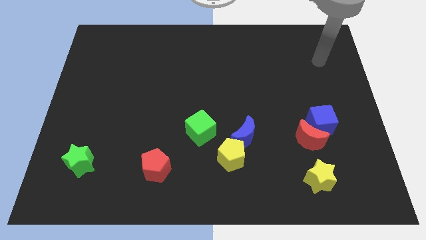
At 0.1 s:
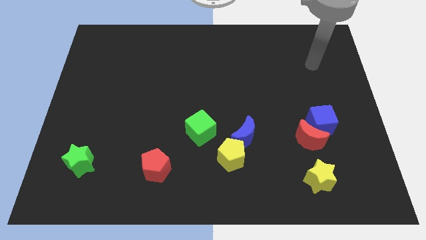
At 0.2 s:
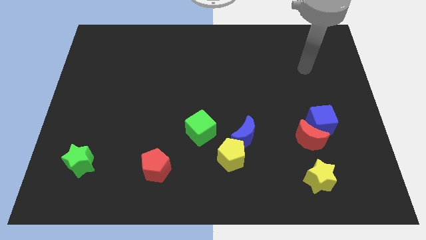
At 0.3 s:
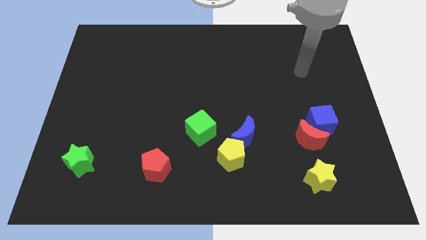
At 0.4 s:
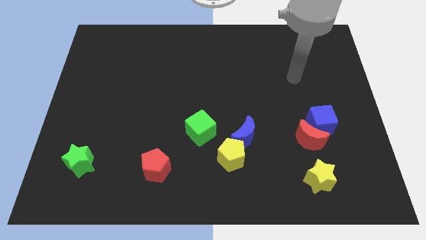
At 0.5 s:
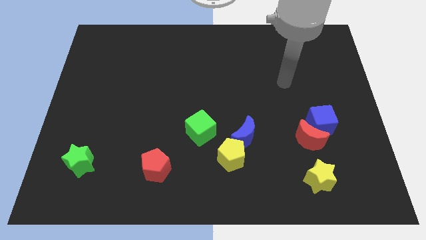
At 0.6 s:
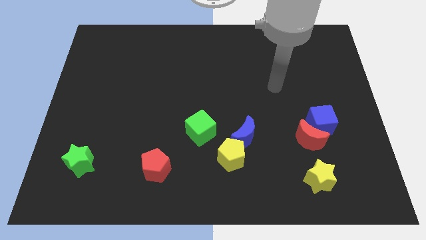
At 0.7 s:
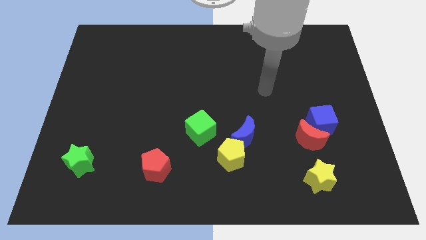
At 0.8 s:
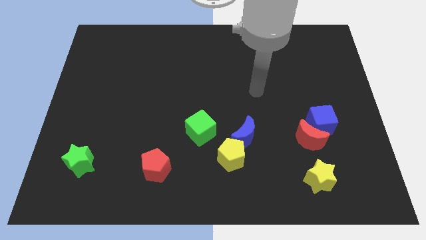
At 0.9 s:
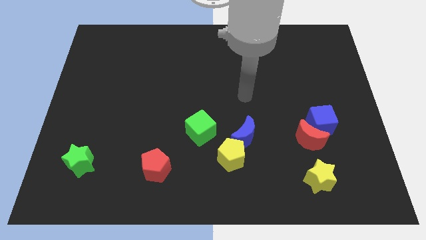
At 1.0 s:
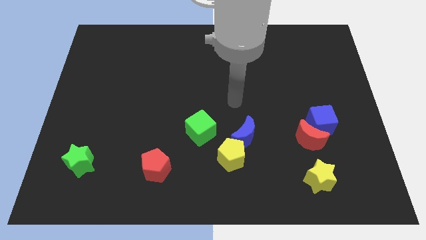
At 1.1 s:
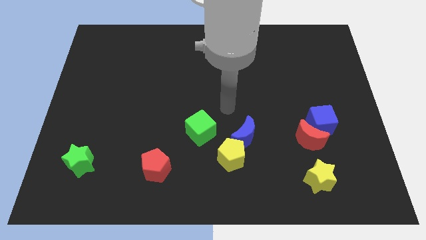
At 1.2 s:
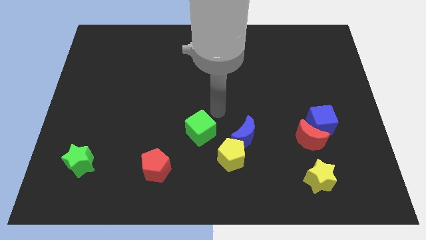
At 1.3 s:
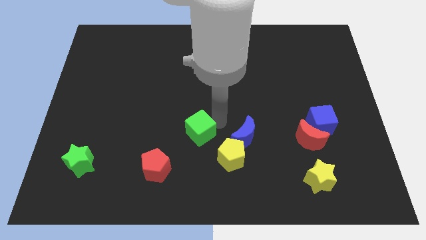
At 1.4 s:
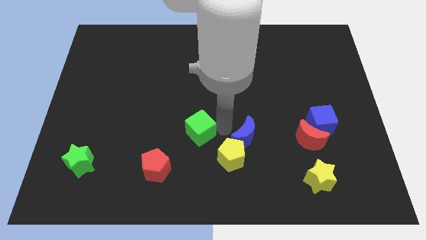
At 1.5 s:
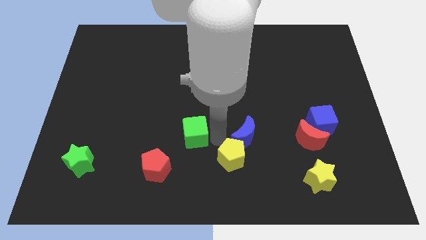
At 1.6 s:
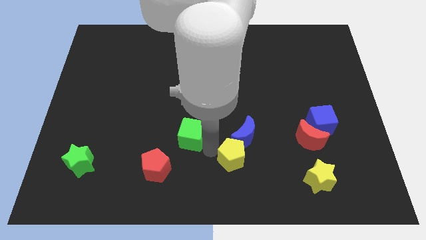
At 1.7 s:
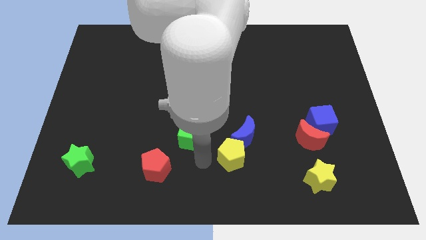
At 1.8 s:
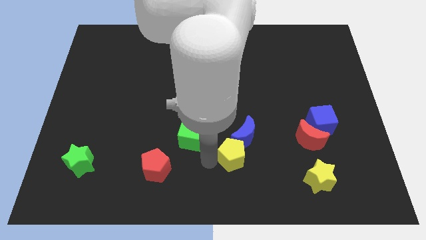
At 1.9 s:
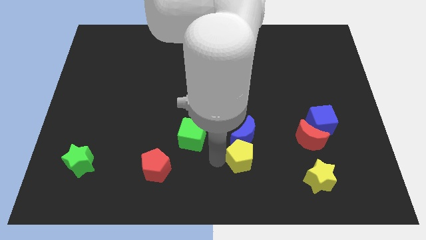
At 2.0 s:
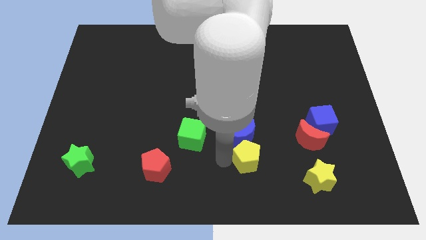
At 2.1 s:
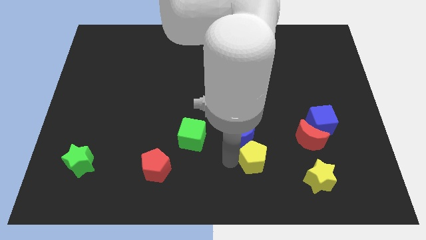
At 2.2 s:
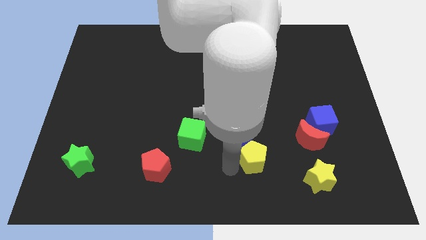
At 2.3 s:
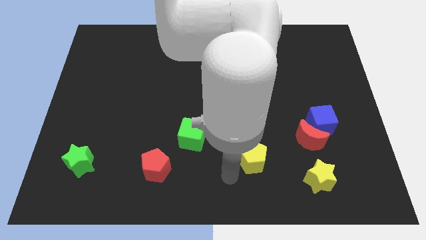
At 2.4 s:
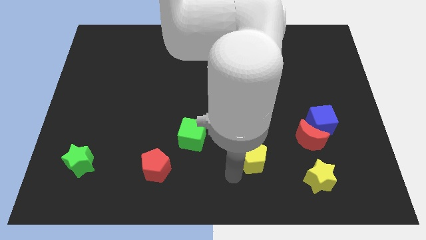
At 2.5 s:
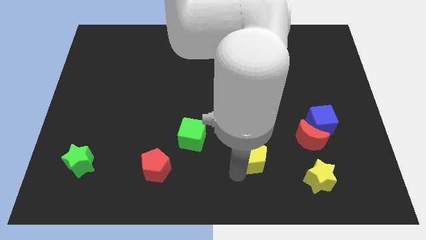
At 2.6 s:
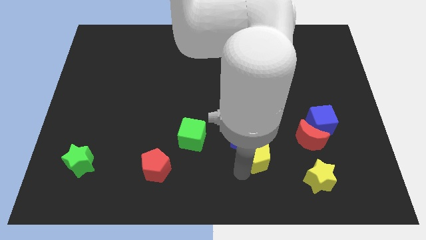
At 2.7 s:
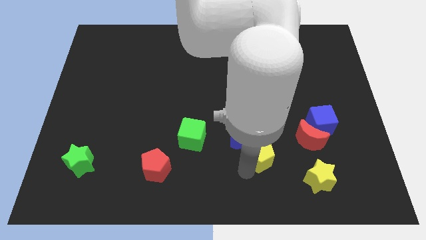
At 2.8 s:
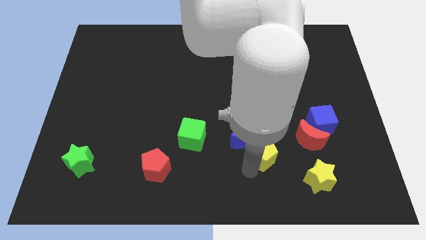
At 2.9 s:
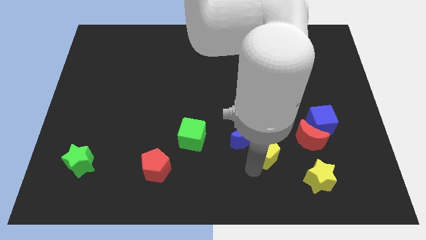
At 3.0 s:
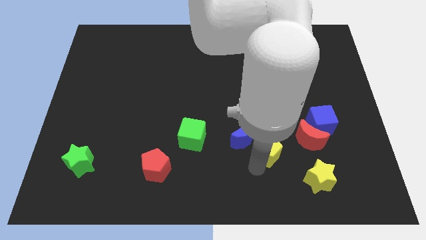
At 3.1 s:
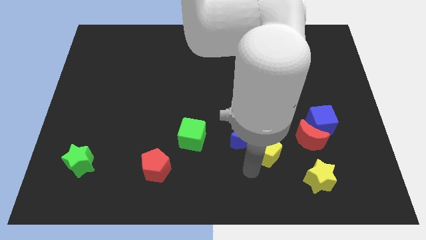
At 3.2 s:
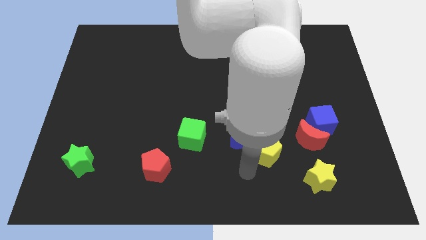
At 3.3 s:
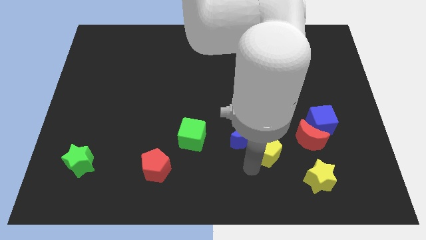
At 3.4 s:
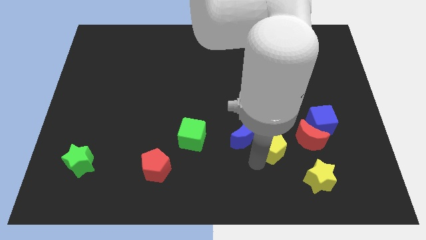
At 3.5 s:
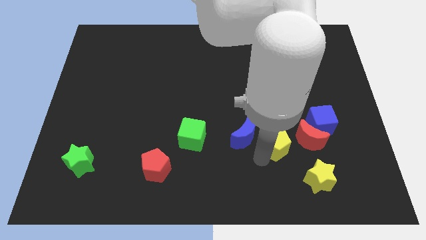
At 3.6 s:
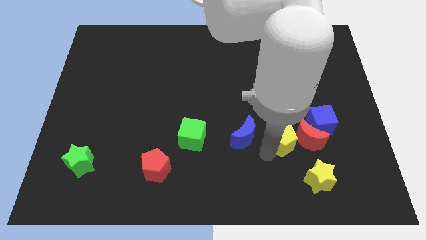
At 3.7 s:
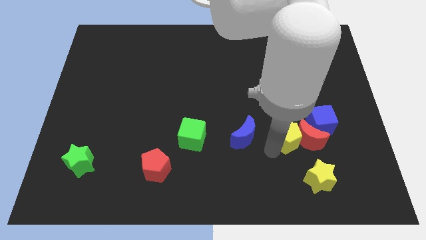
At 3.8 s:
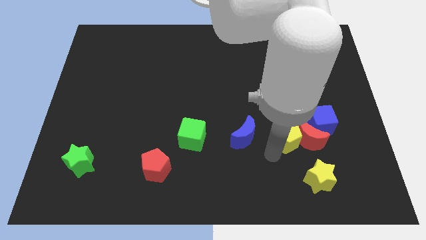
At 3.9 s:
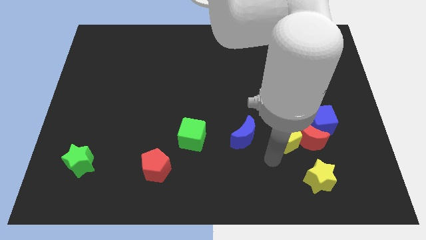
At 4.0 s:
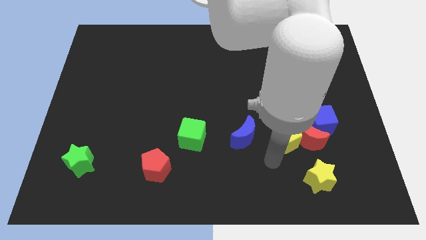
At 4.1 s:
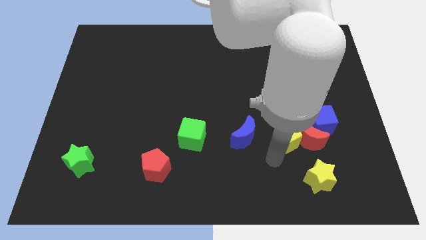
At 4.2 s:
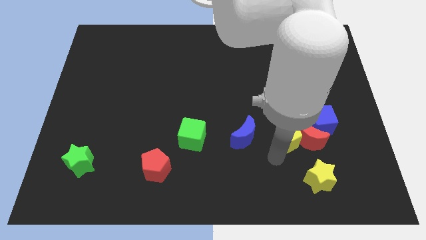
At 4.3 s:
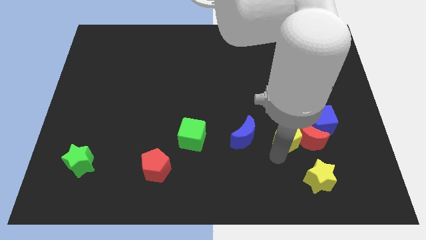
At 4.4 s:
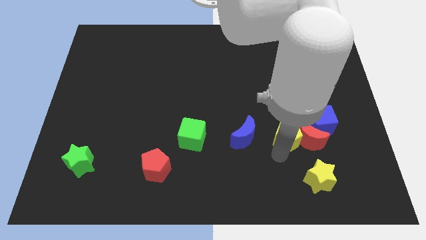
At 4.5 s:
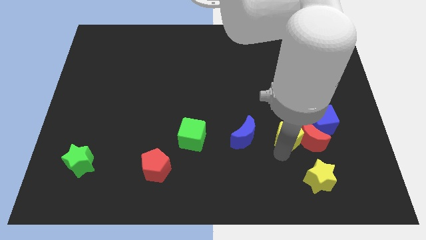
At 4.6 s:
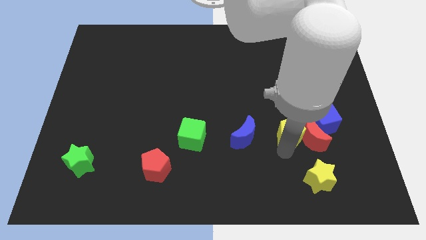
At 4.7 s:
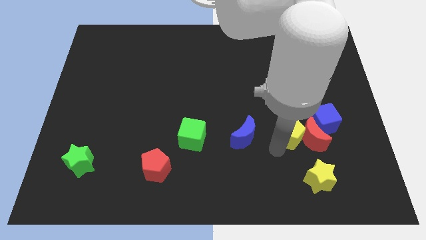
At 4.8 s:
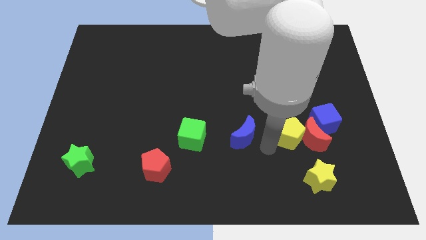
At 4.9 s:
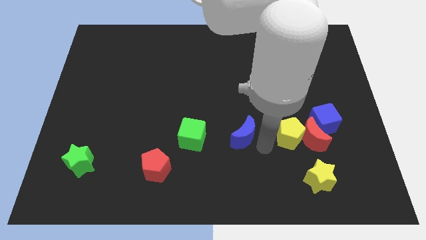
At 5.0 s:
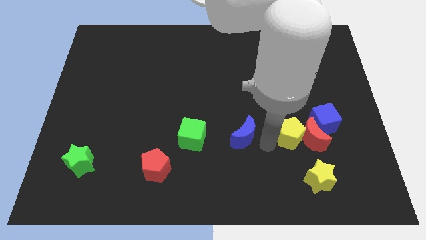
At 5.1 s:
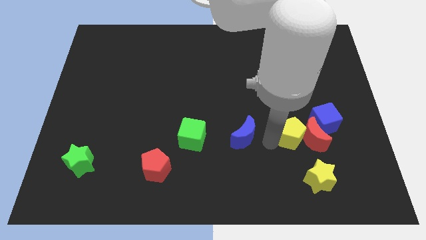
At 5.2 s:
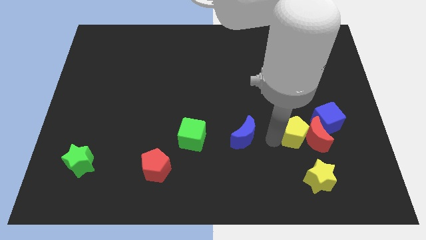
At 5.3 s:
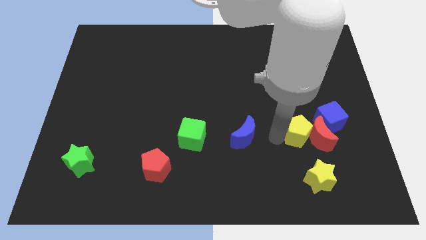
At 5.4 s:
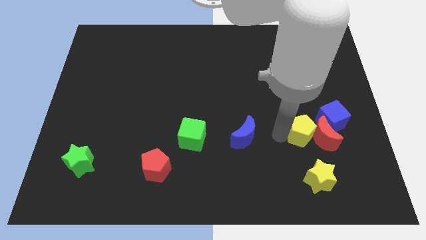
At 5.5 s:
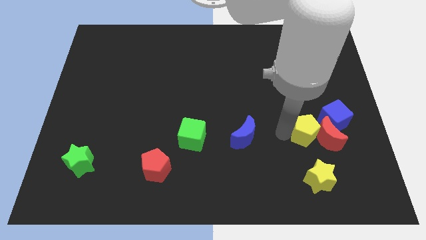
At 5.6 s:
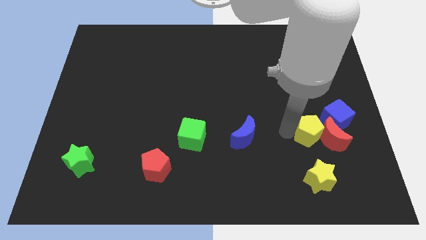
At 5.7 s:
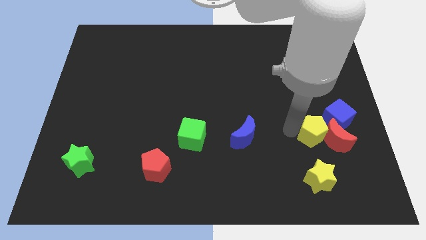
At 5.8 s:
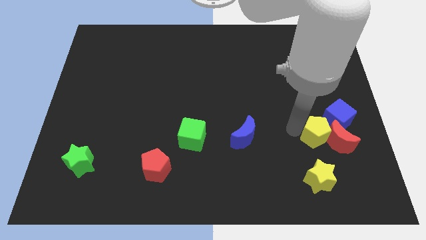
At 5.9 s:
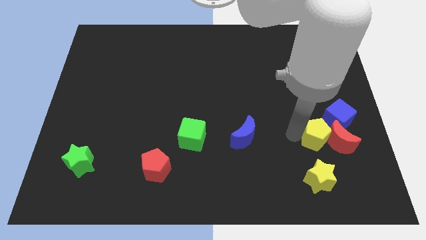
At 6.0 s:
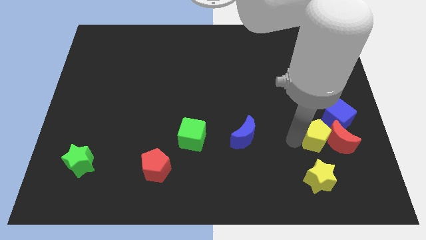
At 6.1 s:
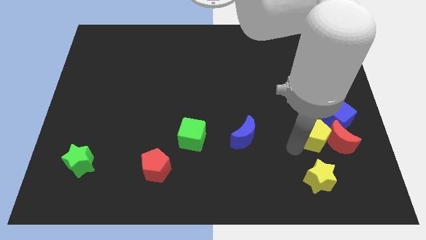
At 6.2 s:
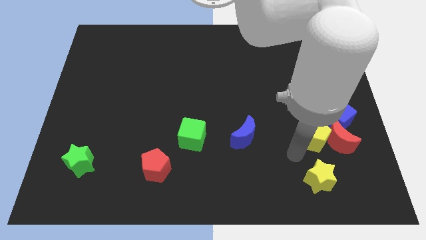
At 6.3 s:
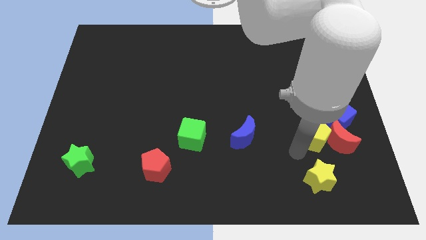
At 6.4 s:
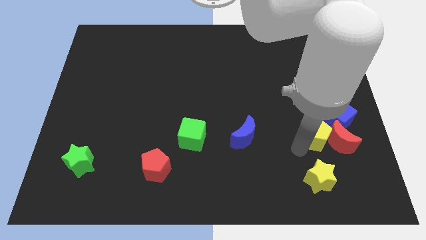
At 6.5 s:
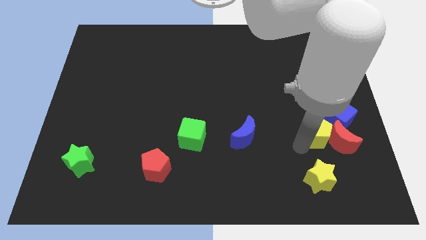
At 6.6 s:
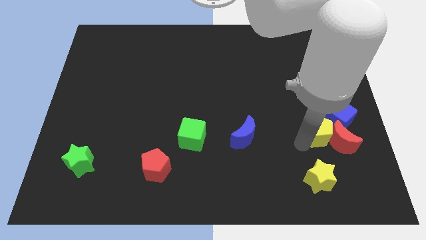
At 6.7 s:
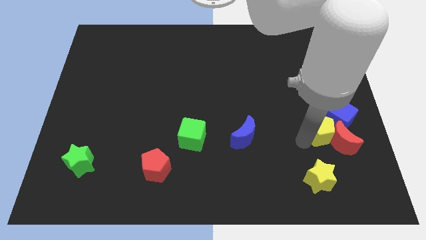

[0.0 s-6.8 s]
slide the yellow pentagon towards the blue cube
